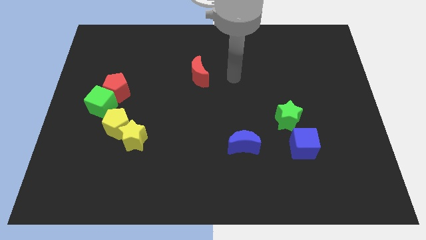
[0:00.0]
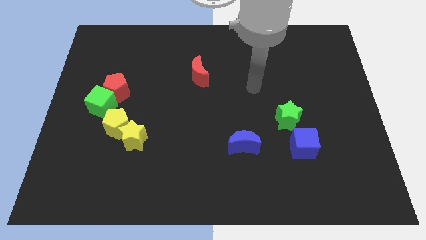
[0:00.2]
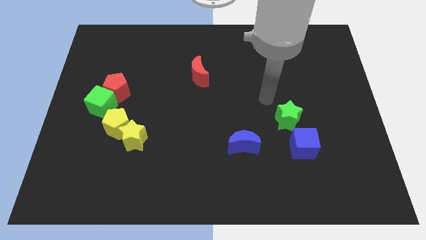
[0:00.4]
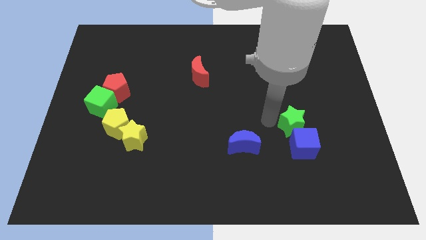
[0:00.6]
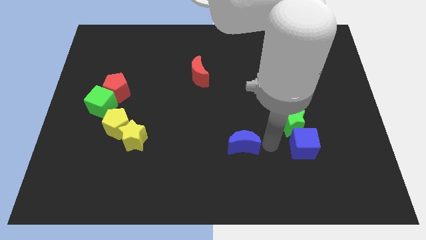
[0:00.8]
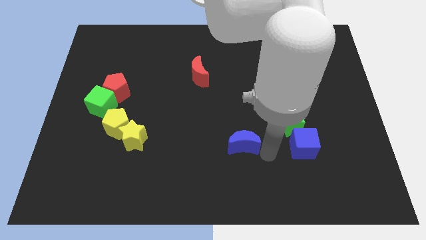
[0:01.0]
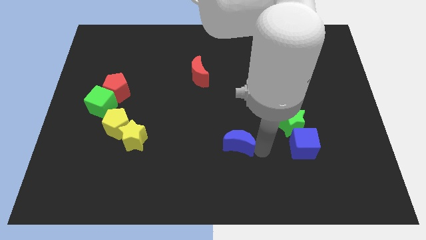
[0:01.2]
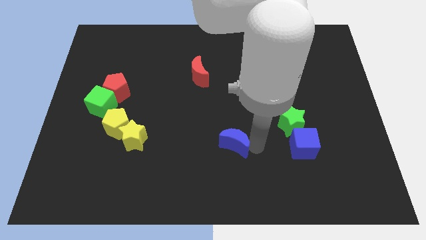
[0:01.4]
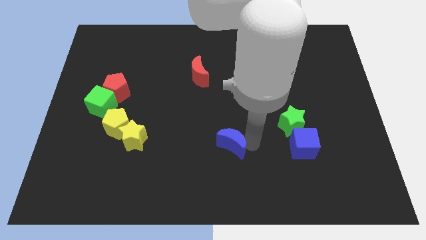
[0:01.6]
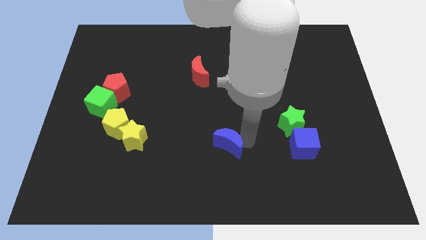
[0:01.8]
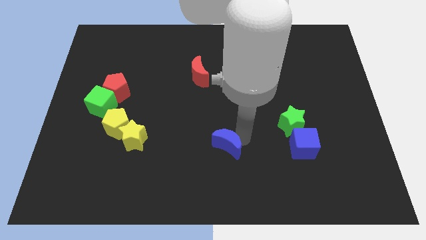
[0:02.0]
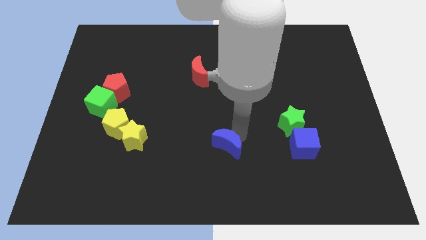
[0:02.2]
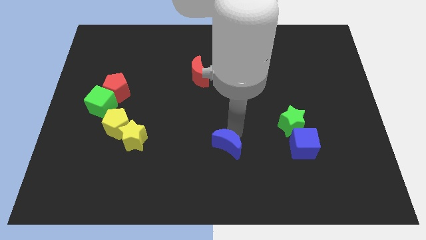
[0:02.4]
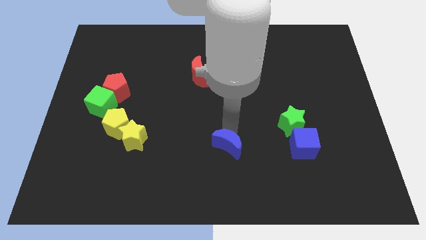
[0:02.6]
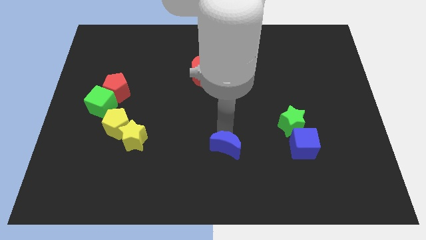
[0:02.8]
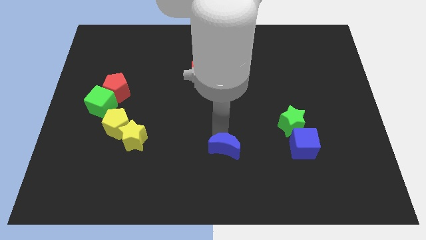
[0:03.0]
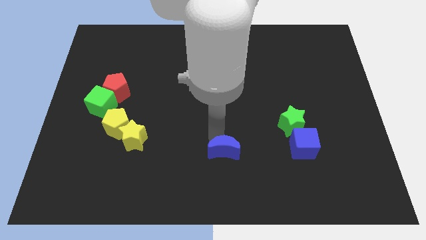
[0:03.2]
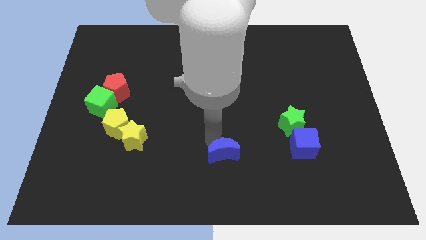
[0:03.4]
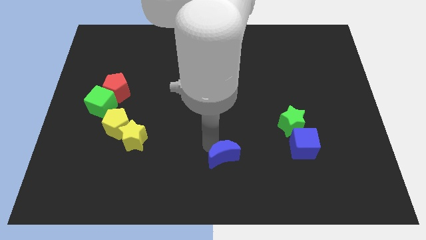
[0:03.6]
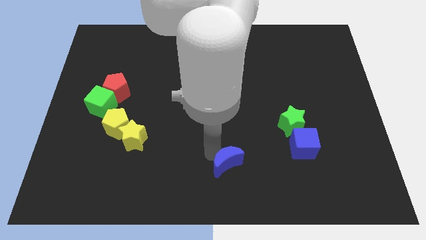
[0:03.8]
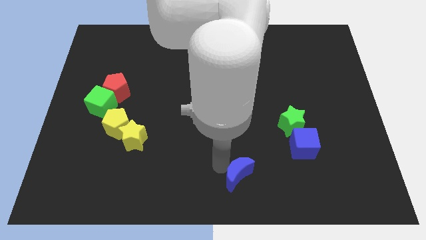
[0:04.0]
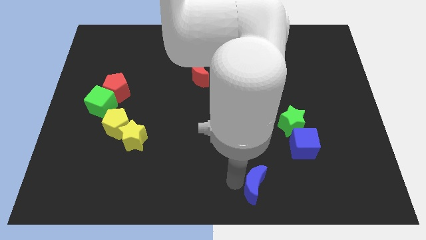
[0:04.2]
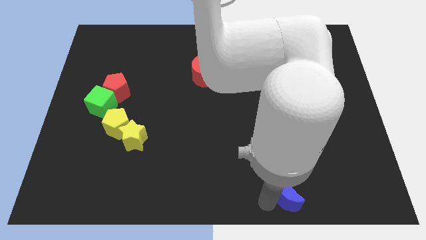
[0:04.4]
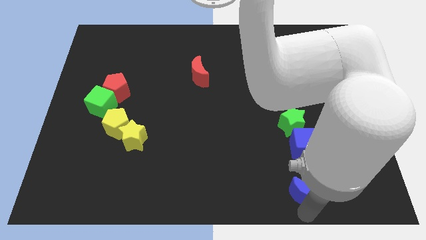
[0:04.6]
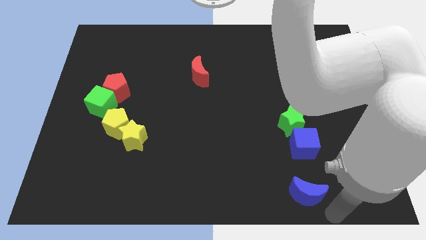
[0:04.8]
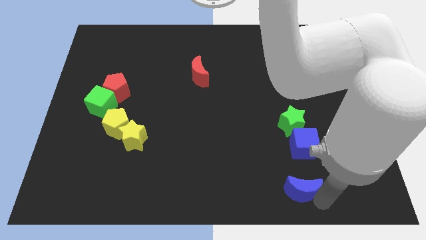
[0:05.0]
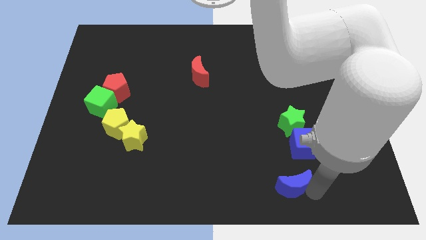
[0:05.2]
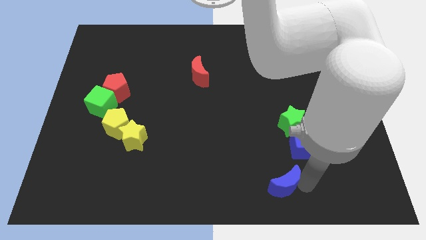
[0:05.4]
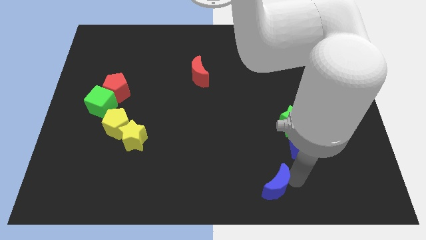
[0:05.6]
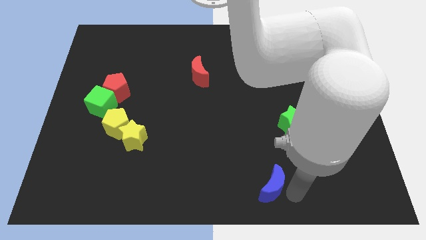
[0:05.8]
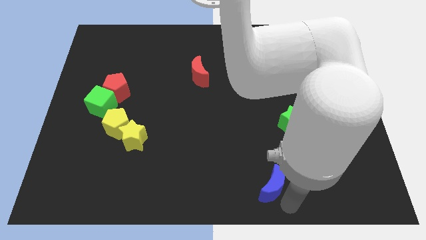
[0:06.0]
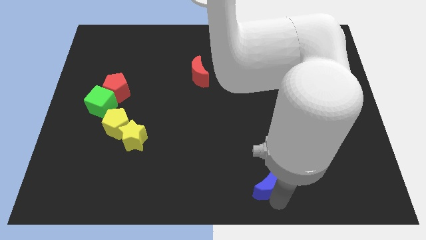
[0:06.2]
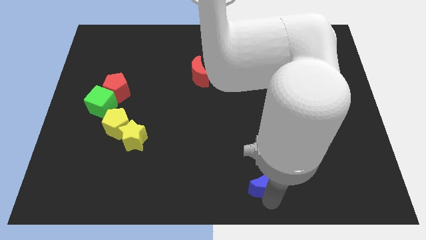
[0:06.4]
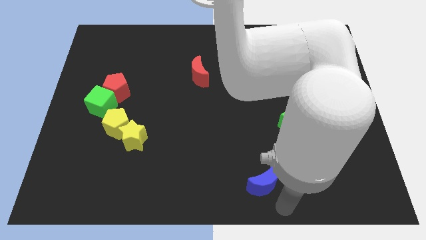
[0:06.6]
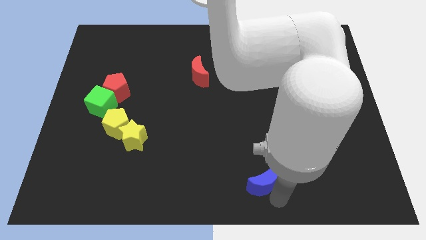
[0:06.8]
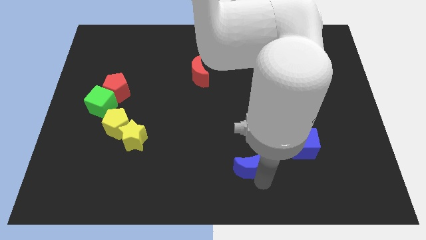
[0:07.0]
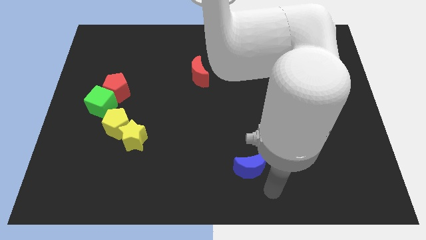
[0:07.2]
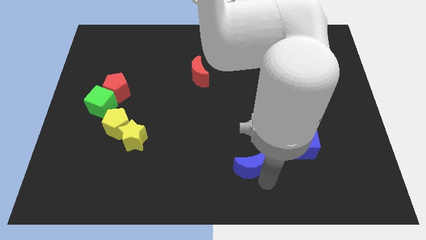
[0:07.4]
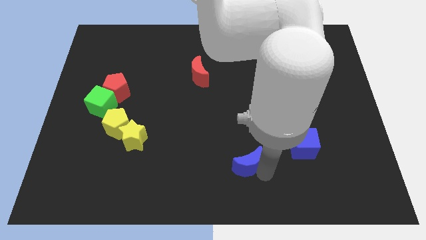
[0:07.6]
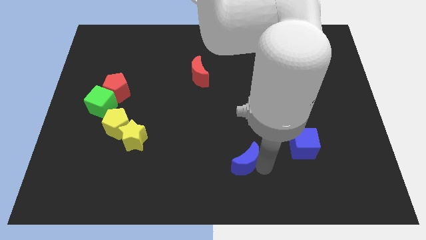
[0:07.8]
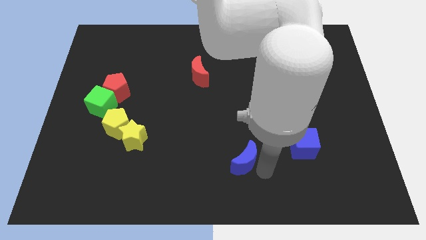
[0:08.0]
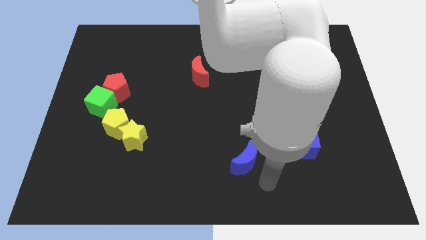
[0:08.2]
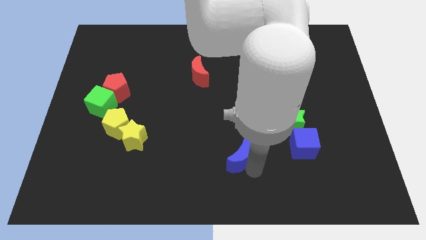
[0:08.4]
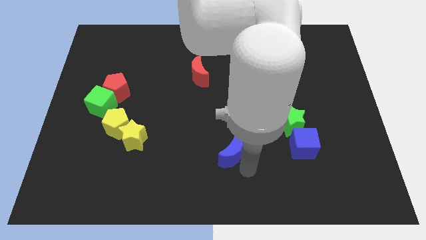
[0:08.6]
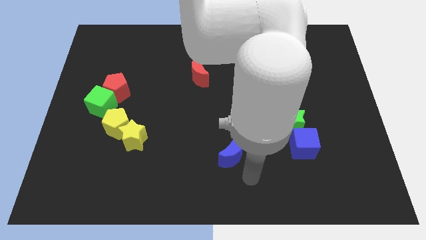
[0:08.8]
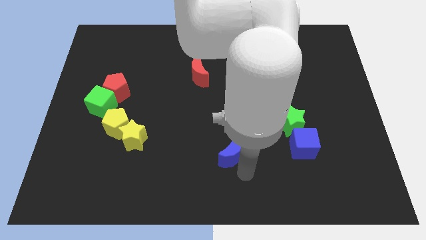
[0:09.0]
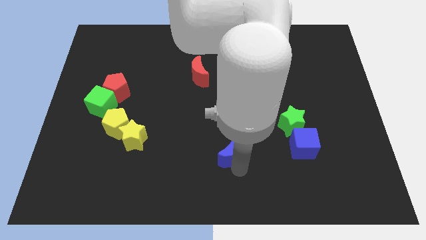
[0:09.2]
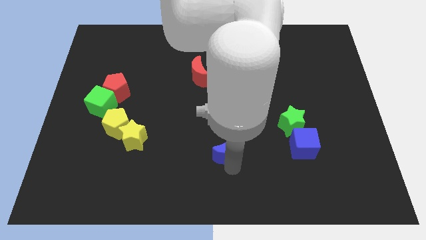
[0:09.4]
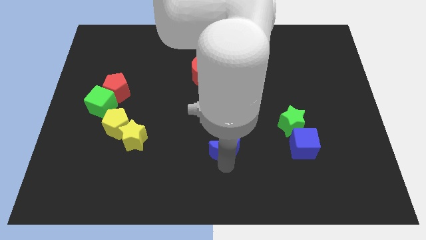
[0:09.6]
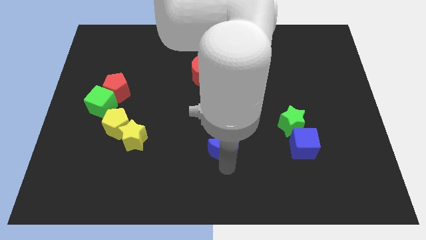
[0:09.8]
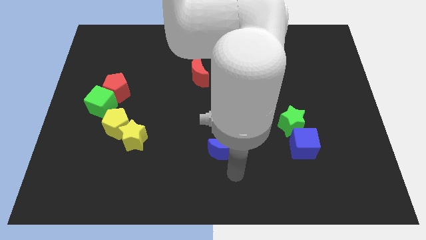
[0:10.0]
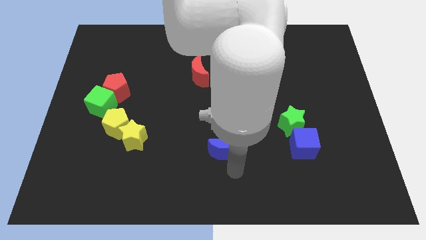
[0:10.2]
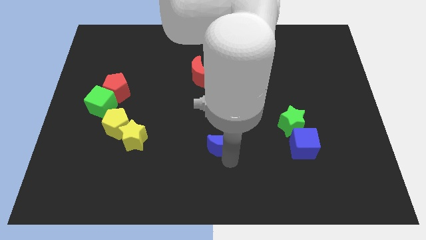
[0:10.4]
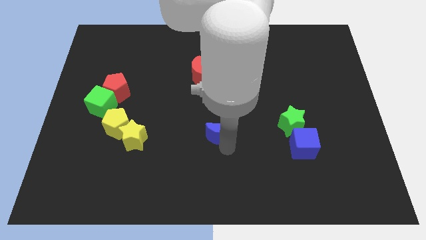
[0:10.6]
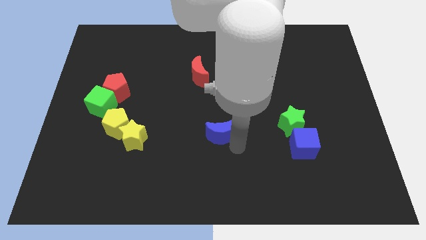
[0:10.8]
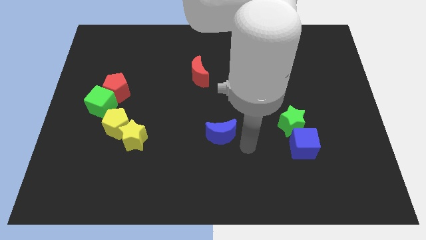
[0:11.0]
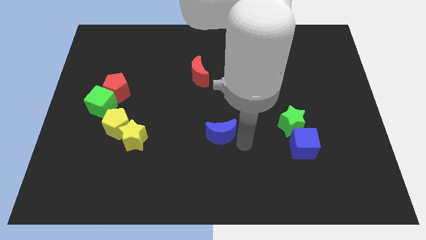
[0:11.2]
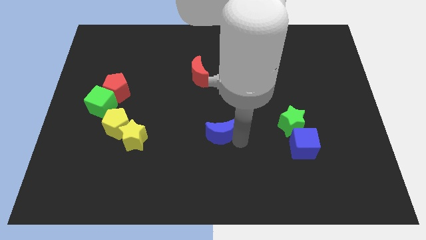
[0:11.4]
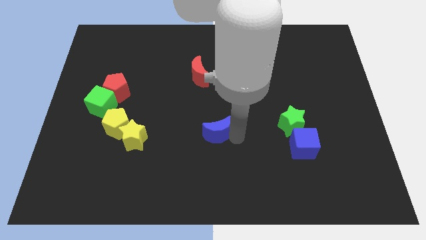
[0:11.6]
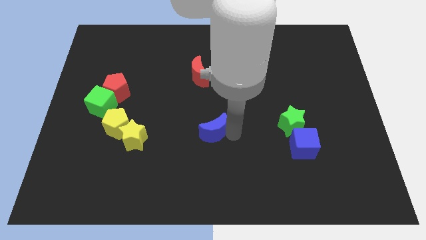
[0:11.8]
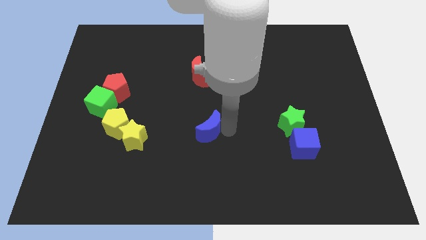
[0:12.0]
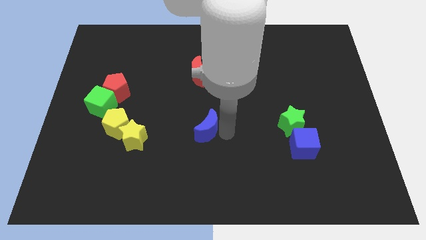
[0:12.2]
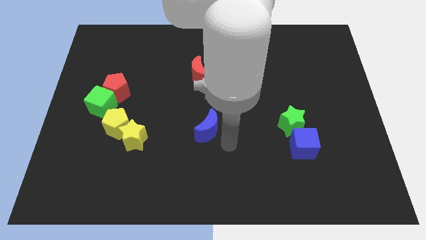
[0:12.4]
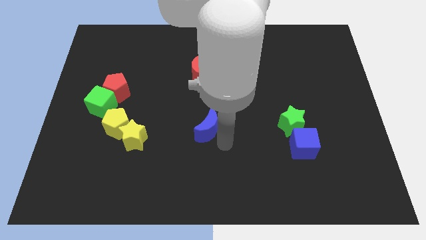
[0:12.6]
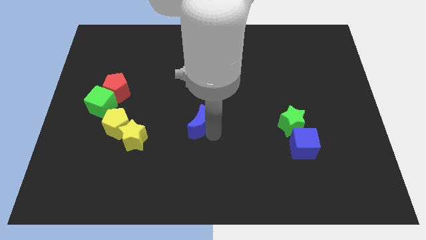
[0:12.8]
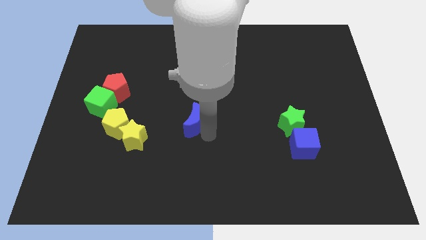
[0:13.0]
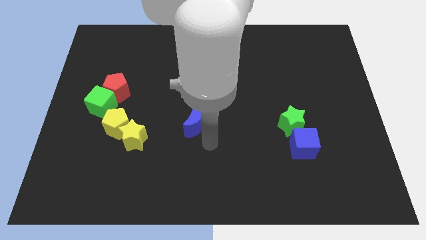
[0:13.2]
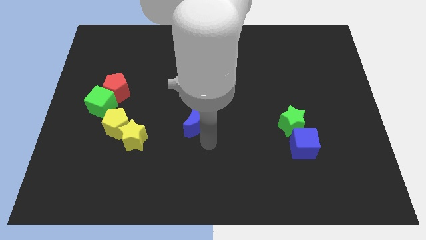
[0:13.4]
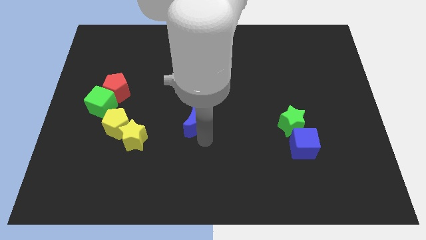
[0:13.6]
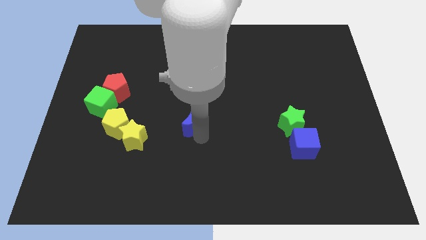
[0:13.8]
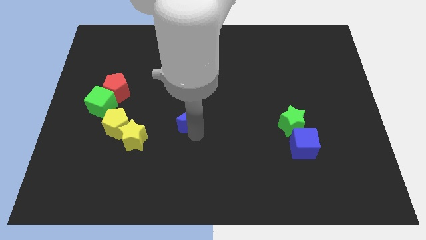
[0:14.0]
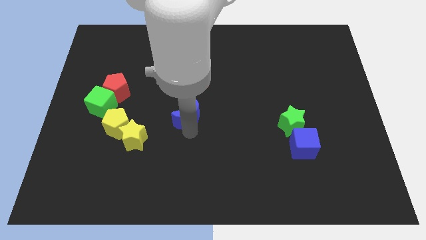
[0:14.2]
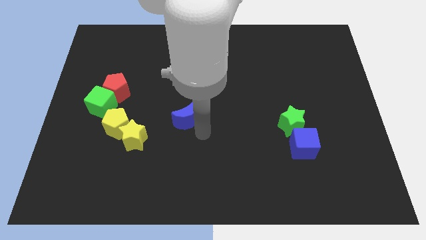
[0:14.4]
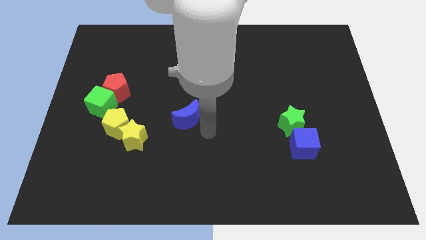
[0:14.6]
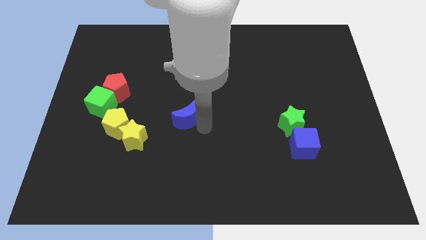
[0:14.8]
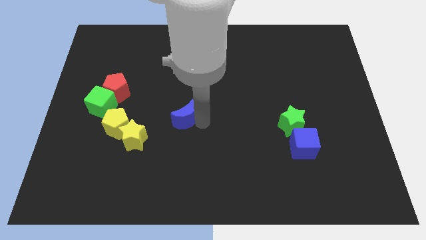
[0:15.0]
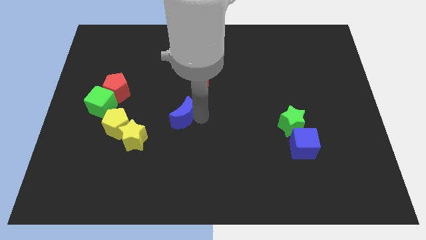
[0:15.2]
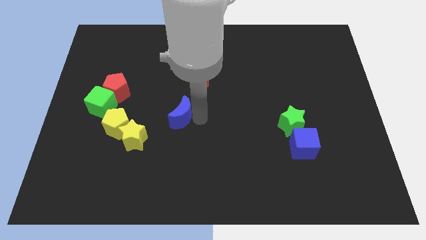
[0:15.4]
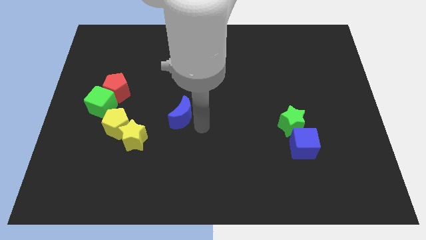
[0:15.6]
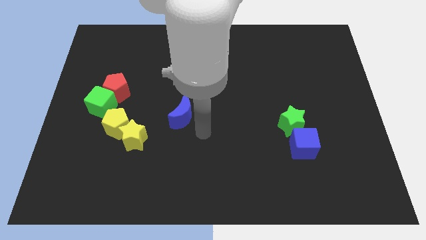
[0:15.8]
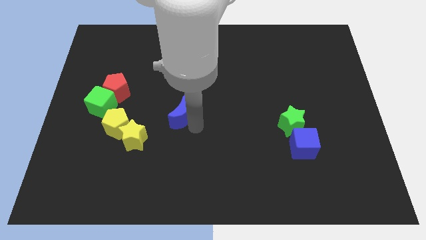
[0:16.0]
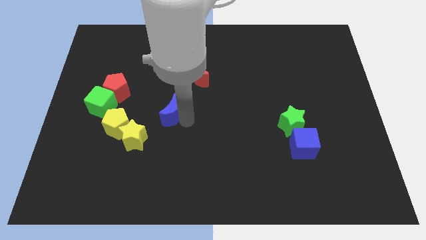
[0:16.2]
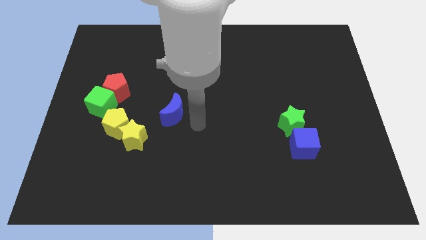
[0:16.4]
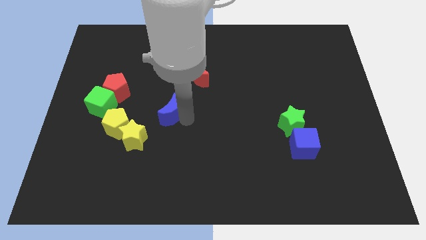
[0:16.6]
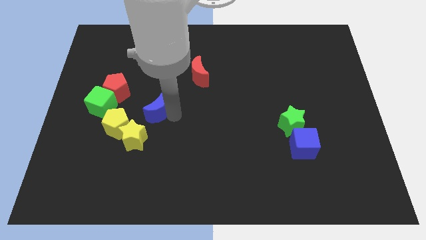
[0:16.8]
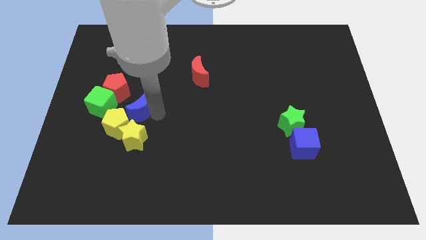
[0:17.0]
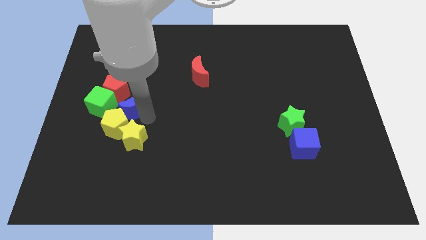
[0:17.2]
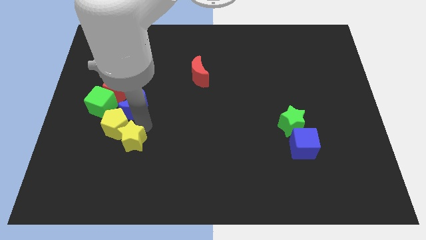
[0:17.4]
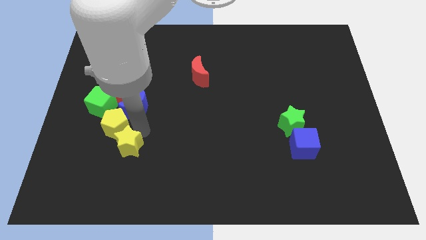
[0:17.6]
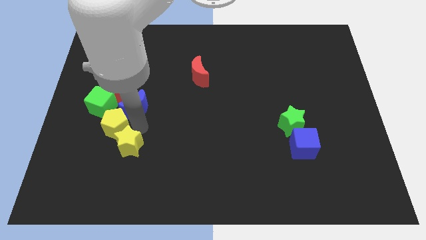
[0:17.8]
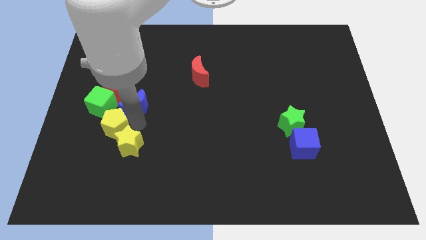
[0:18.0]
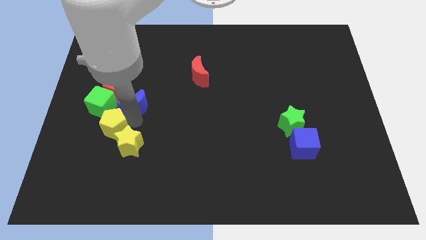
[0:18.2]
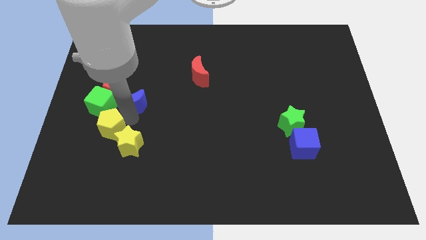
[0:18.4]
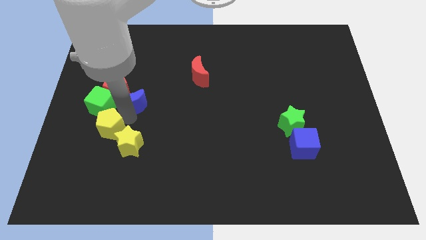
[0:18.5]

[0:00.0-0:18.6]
slide the blue moon towards the red pentagon
